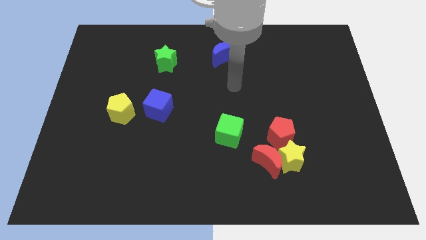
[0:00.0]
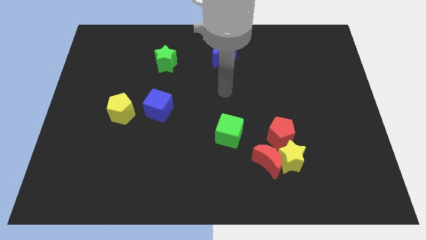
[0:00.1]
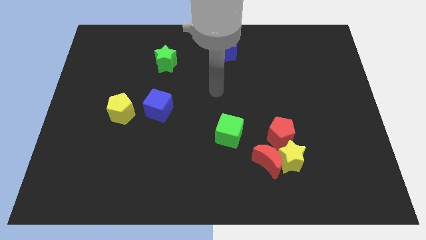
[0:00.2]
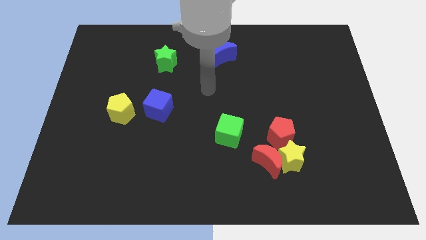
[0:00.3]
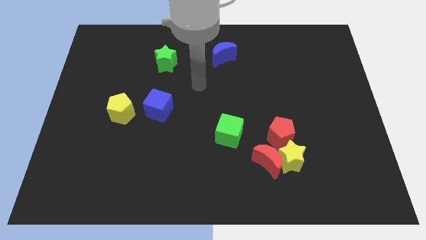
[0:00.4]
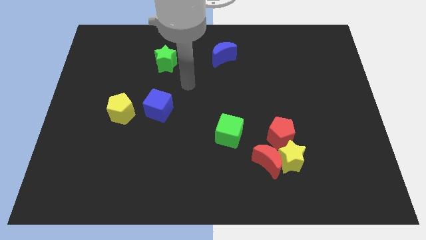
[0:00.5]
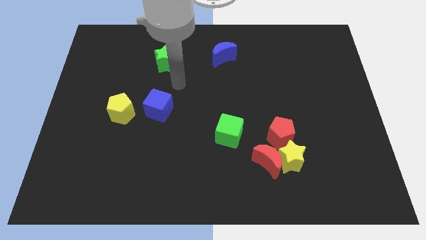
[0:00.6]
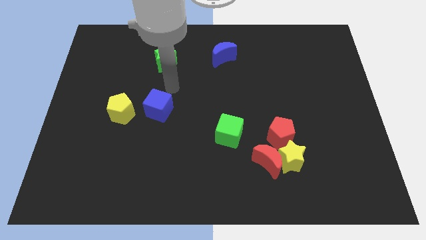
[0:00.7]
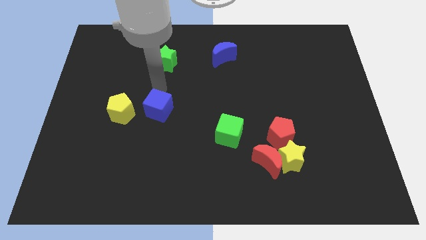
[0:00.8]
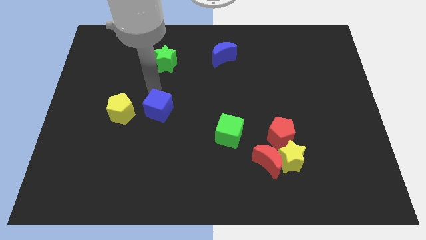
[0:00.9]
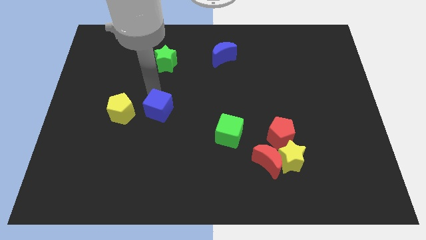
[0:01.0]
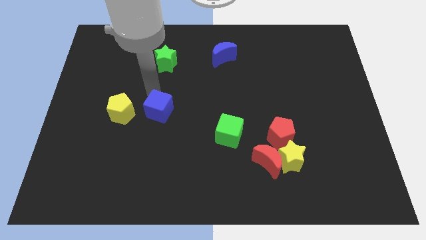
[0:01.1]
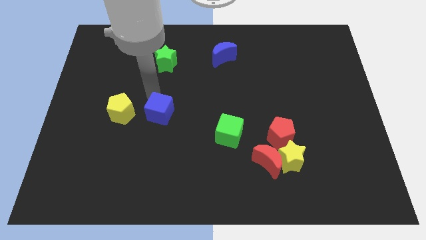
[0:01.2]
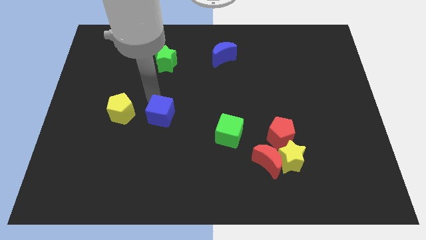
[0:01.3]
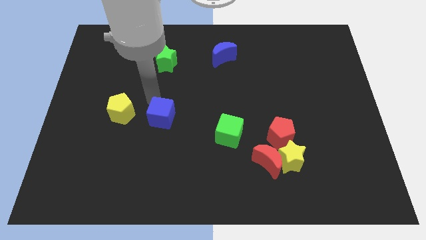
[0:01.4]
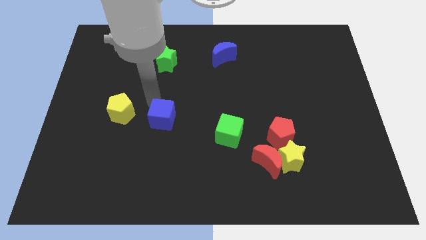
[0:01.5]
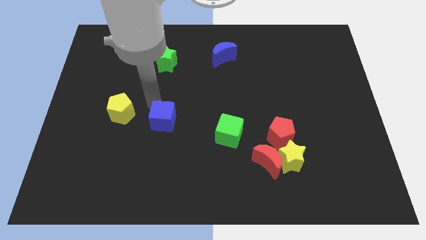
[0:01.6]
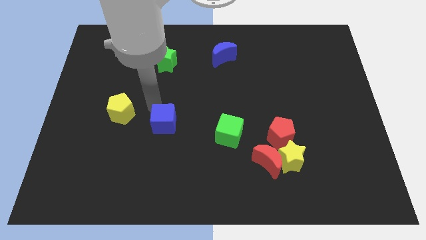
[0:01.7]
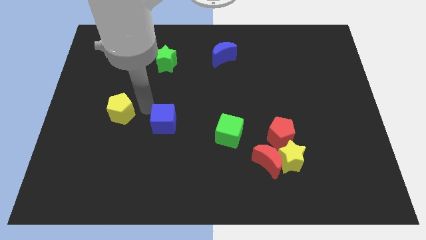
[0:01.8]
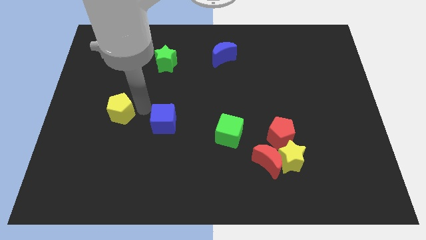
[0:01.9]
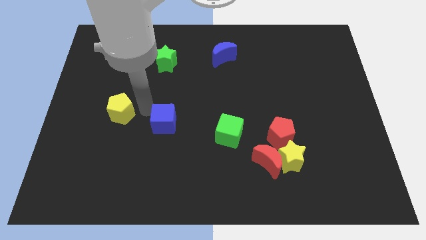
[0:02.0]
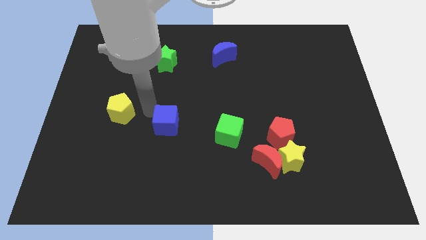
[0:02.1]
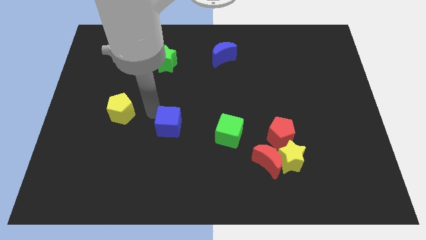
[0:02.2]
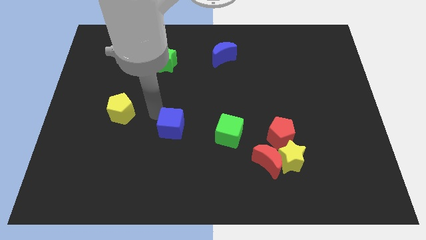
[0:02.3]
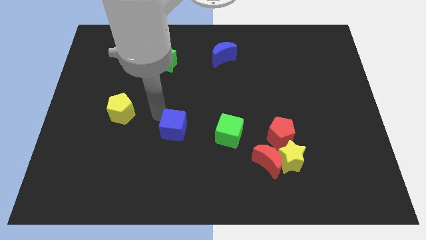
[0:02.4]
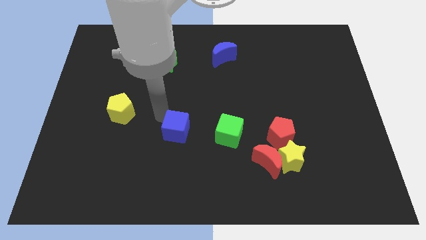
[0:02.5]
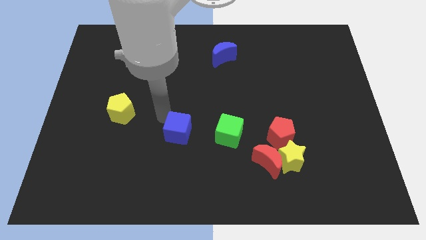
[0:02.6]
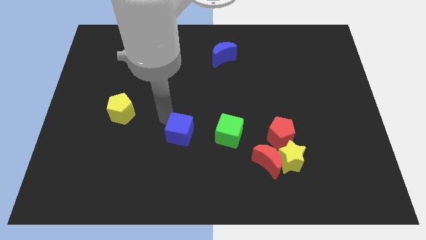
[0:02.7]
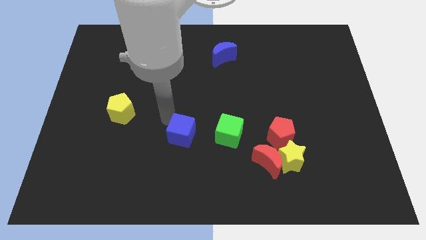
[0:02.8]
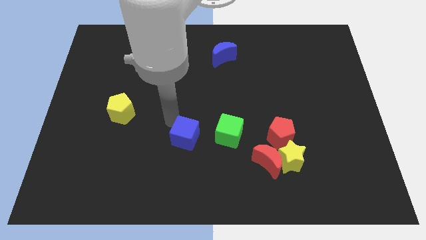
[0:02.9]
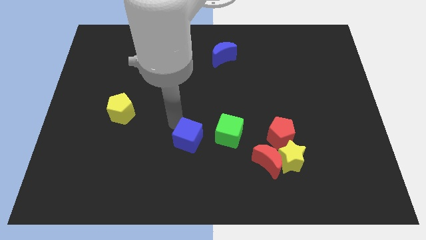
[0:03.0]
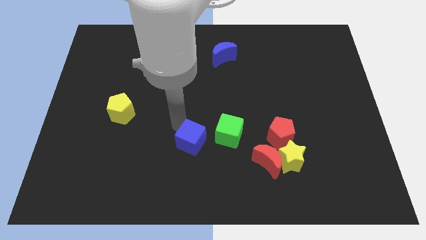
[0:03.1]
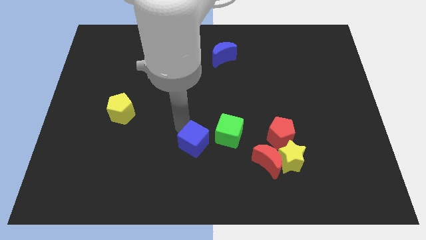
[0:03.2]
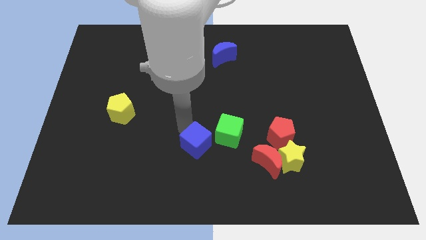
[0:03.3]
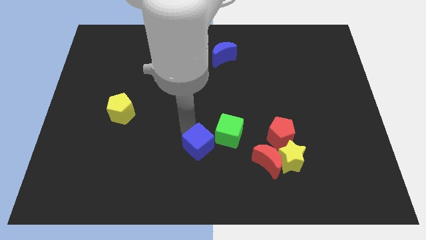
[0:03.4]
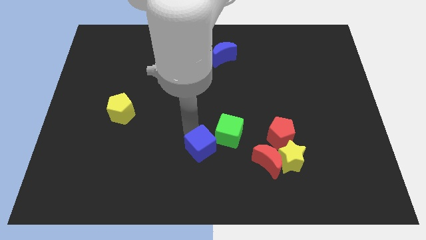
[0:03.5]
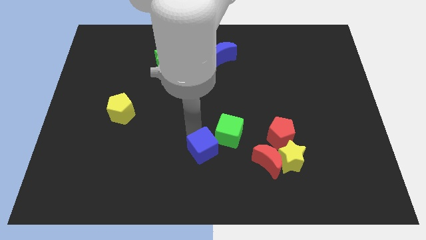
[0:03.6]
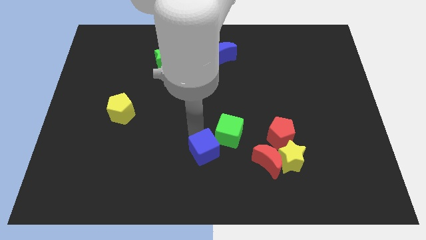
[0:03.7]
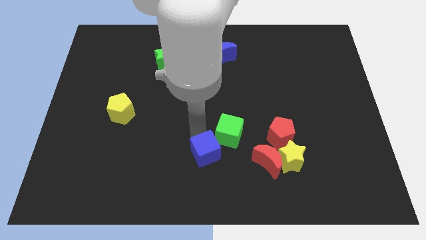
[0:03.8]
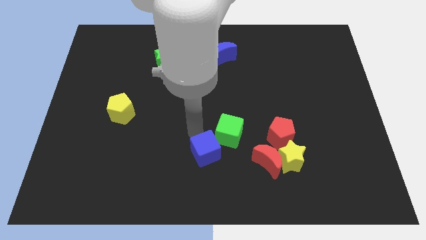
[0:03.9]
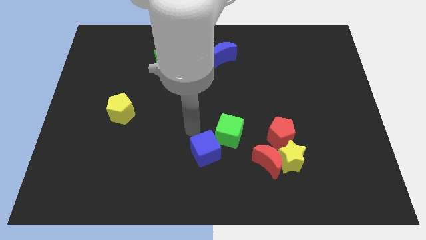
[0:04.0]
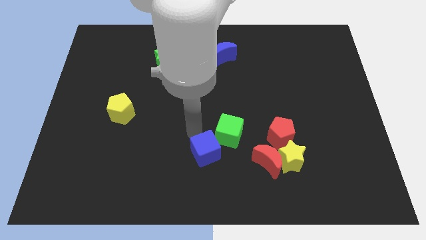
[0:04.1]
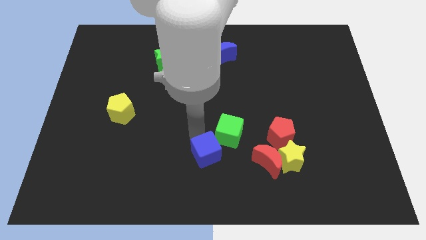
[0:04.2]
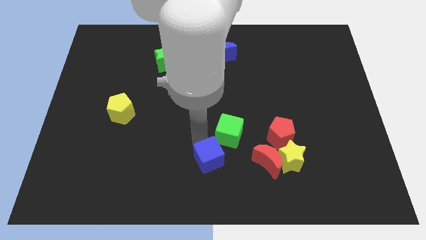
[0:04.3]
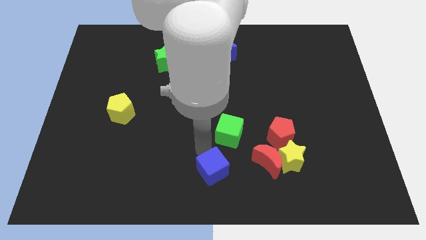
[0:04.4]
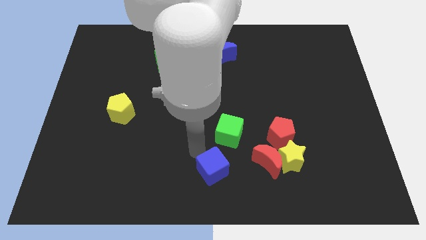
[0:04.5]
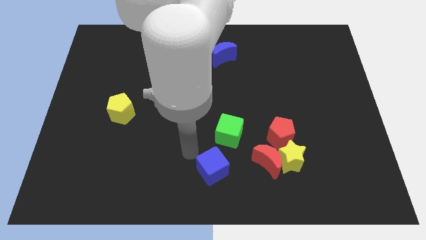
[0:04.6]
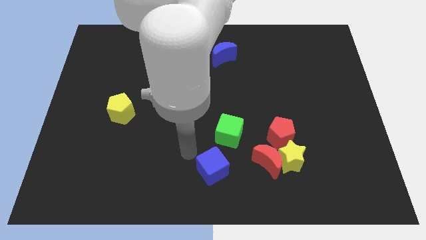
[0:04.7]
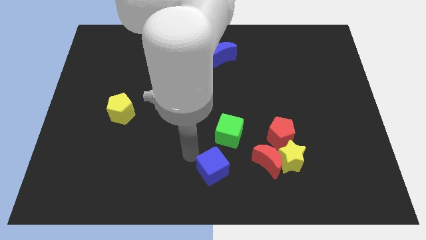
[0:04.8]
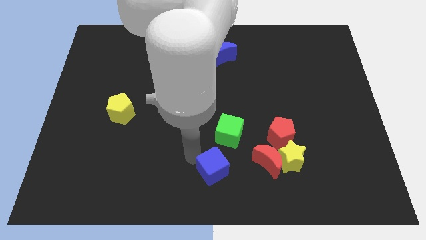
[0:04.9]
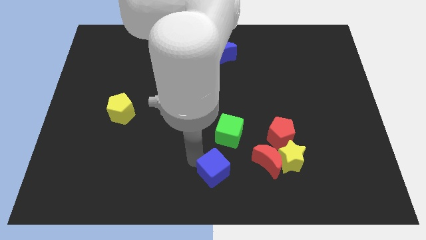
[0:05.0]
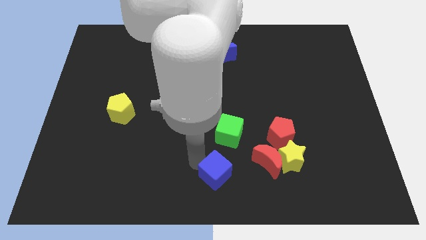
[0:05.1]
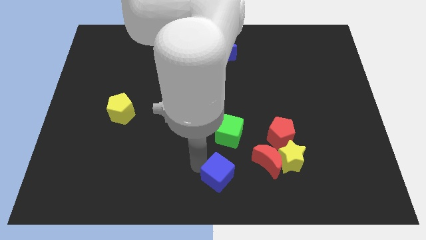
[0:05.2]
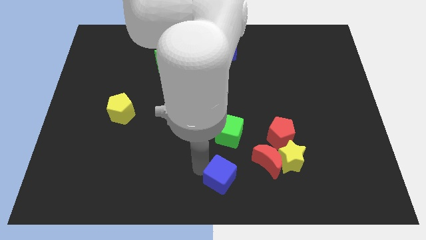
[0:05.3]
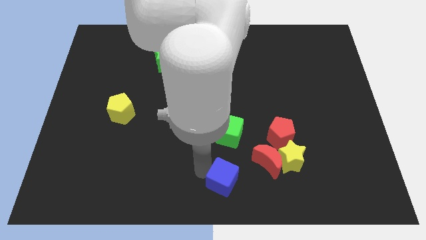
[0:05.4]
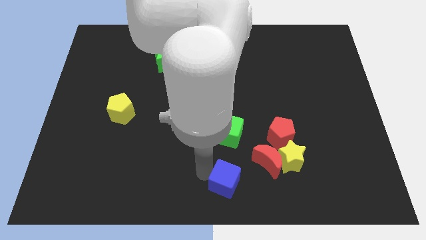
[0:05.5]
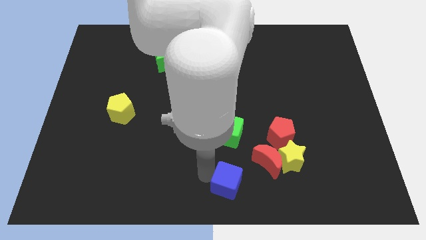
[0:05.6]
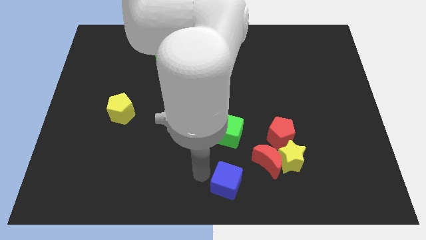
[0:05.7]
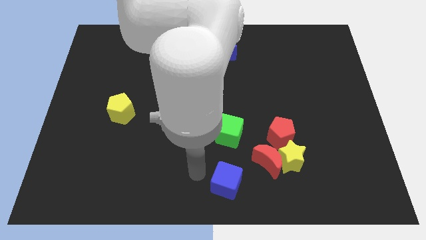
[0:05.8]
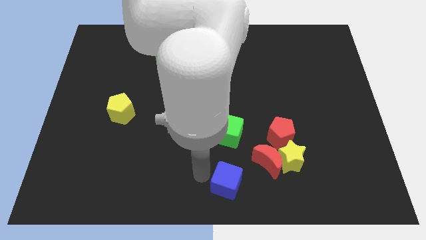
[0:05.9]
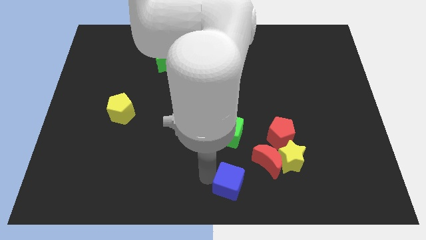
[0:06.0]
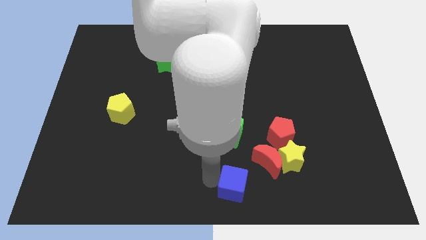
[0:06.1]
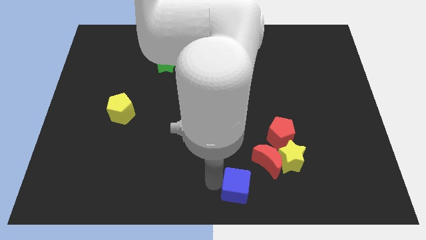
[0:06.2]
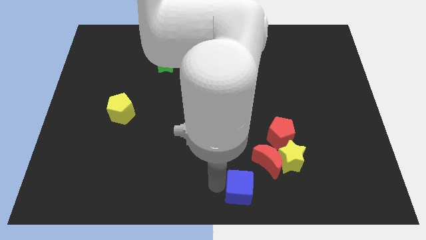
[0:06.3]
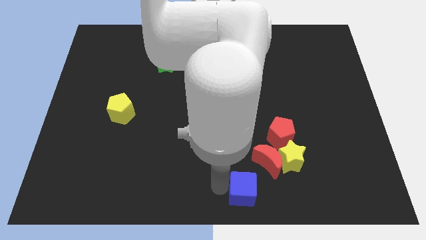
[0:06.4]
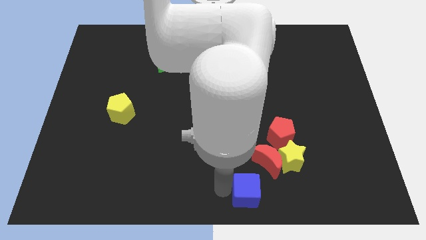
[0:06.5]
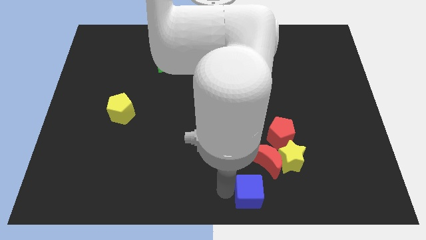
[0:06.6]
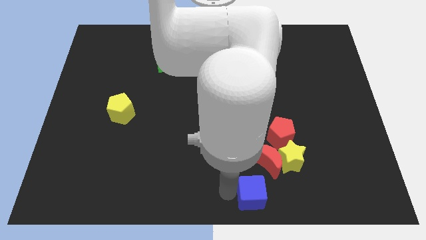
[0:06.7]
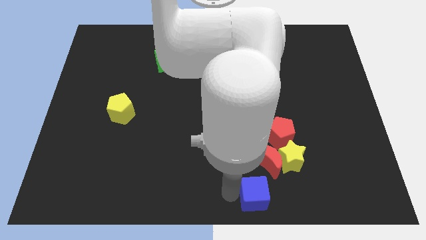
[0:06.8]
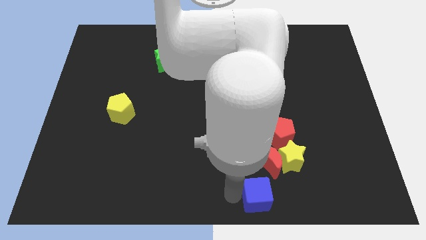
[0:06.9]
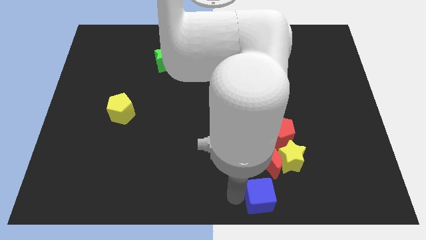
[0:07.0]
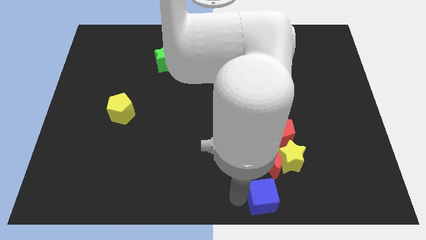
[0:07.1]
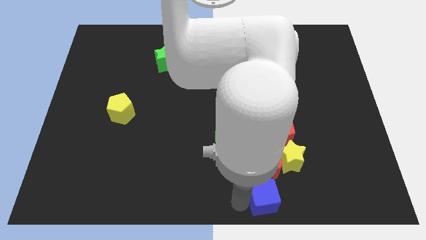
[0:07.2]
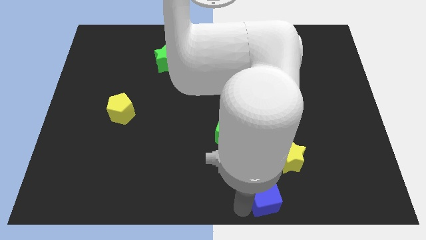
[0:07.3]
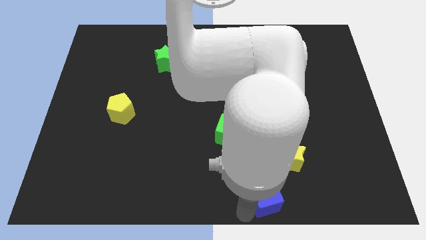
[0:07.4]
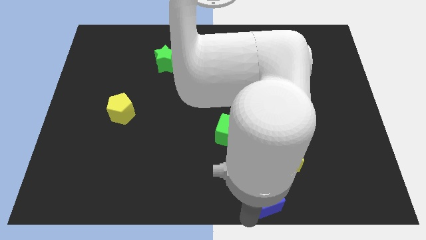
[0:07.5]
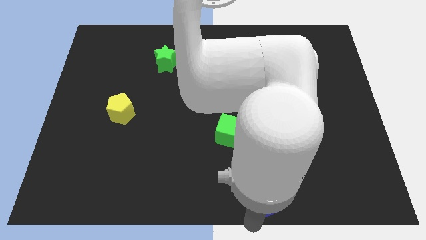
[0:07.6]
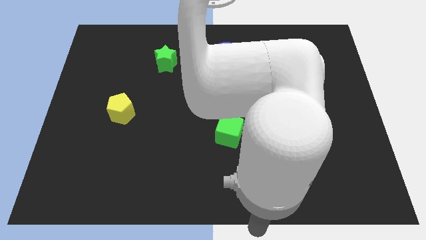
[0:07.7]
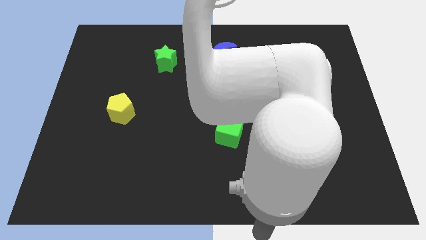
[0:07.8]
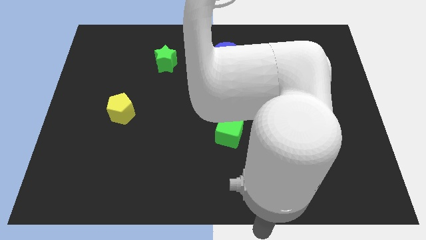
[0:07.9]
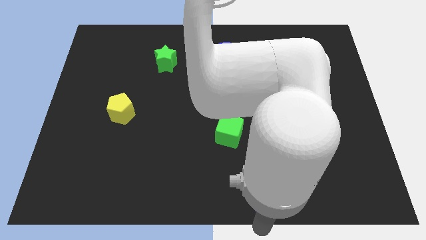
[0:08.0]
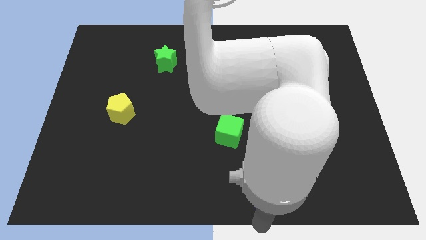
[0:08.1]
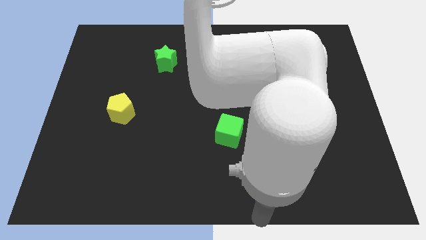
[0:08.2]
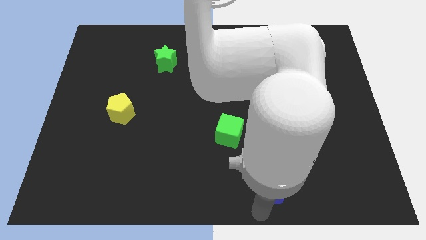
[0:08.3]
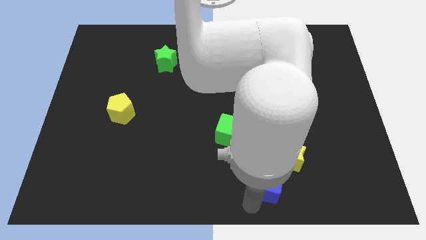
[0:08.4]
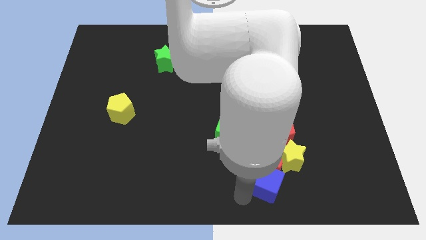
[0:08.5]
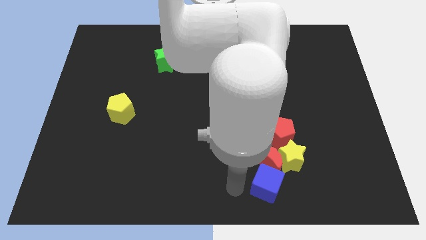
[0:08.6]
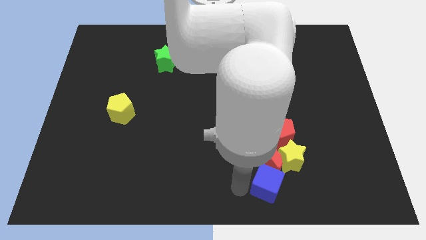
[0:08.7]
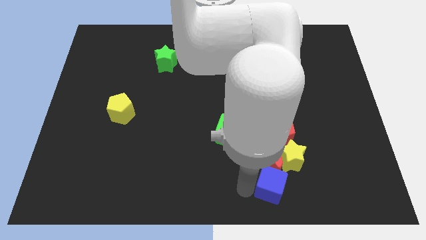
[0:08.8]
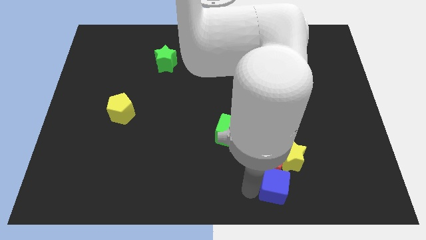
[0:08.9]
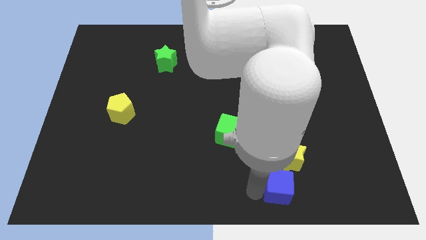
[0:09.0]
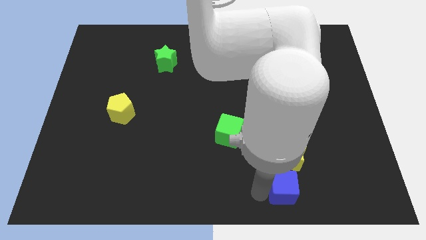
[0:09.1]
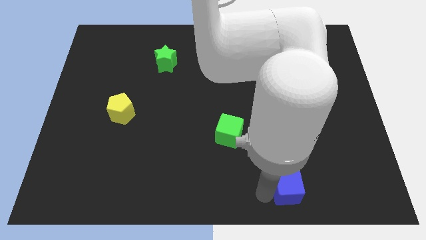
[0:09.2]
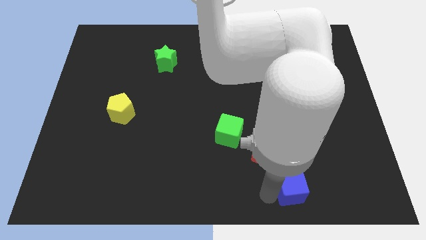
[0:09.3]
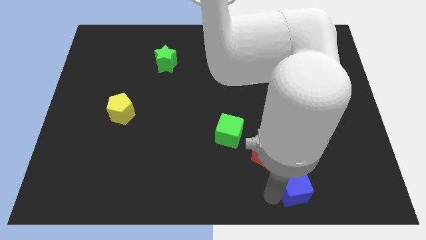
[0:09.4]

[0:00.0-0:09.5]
move the blue cube diagonally down and to the right of the yellow star
